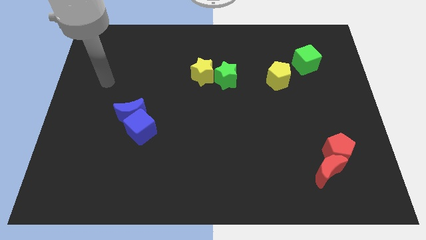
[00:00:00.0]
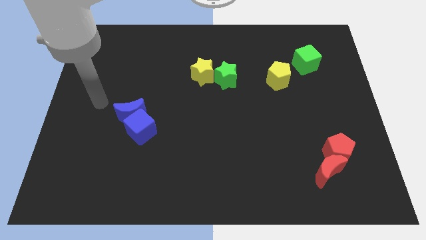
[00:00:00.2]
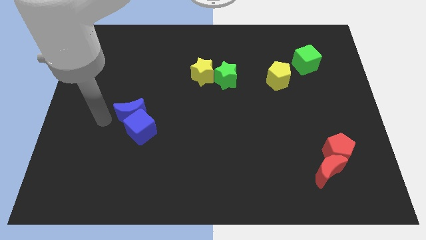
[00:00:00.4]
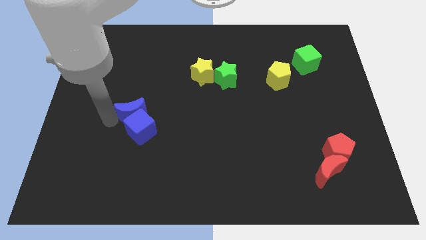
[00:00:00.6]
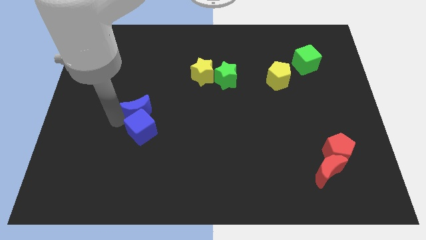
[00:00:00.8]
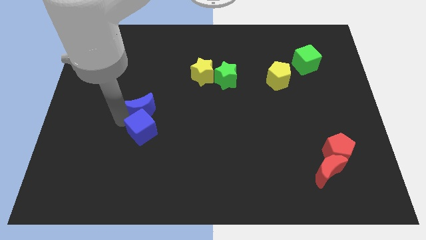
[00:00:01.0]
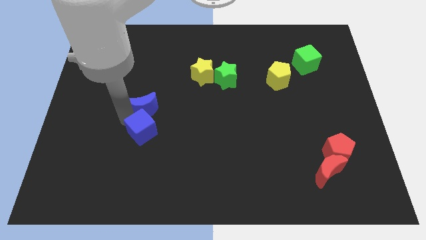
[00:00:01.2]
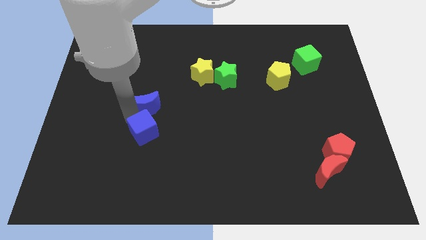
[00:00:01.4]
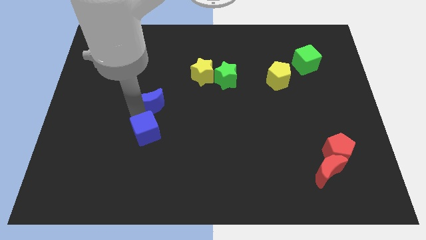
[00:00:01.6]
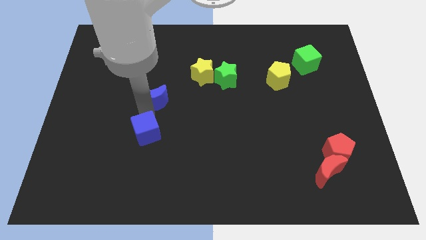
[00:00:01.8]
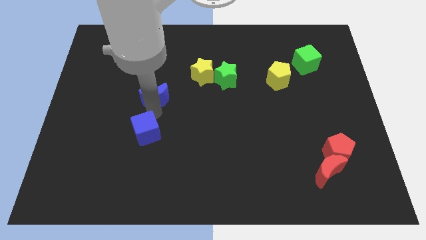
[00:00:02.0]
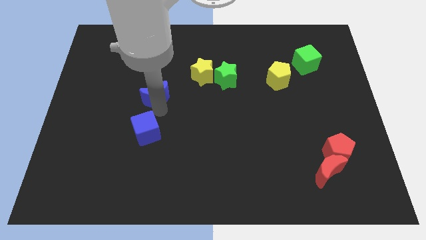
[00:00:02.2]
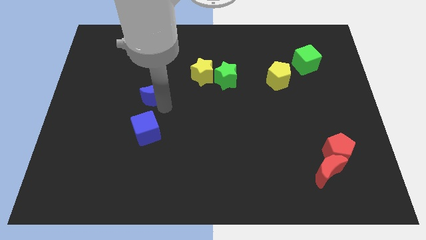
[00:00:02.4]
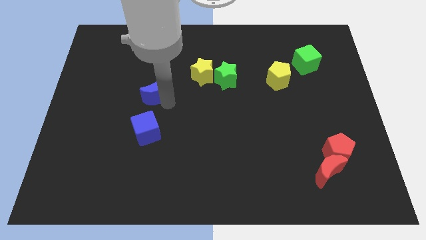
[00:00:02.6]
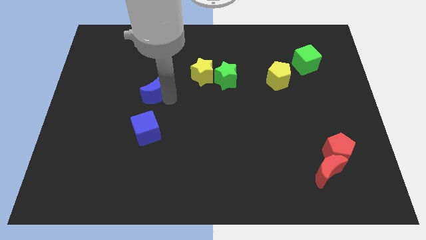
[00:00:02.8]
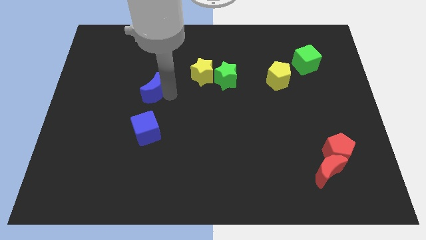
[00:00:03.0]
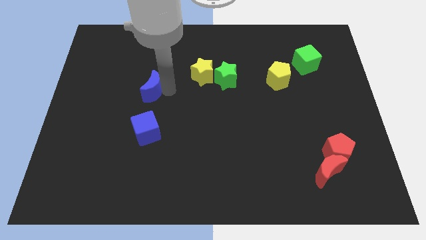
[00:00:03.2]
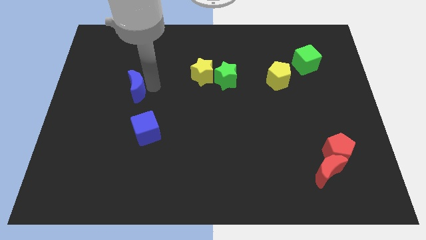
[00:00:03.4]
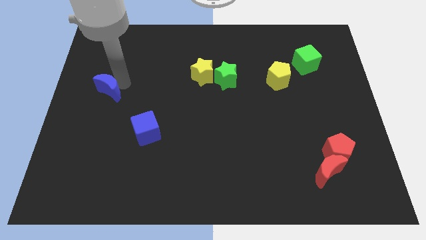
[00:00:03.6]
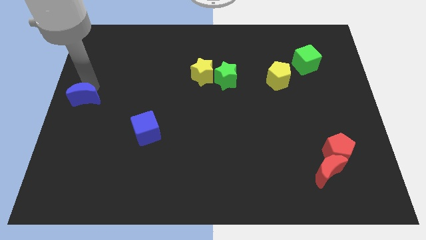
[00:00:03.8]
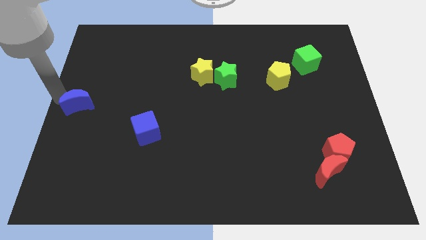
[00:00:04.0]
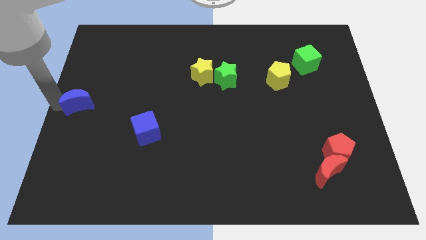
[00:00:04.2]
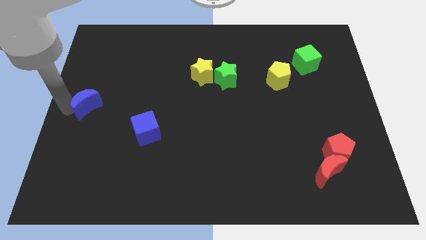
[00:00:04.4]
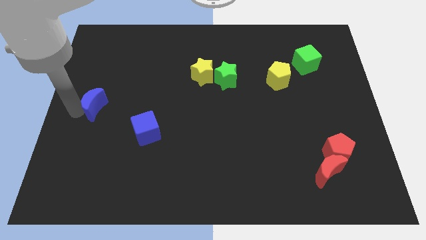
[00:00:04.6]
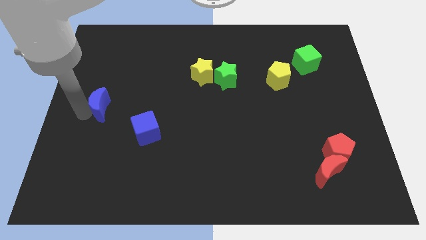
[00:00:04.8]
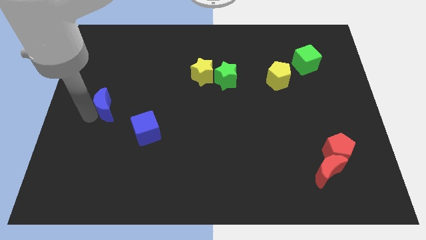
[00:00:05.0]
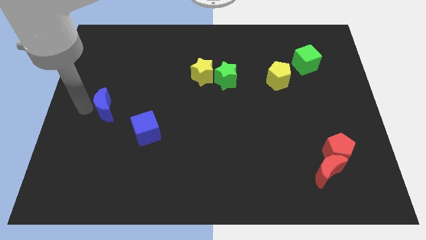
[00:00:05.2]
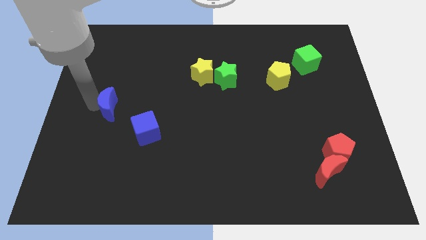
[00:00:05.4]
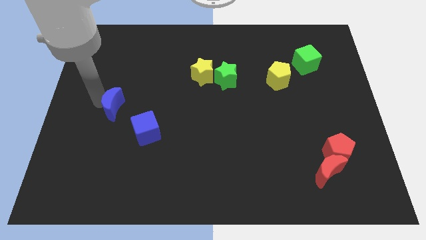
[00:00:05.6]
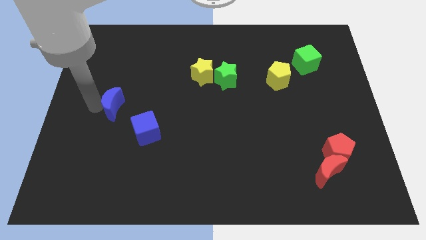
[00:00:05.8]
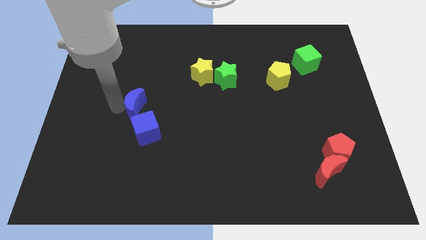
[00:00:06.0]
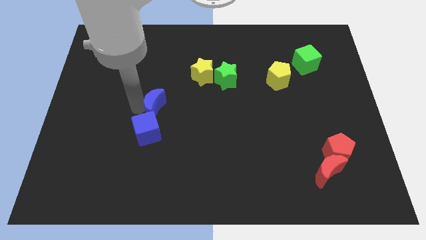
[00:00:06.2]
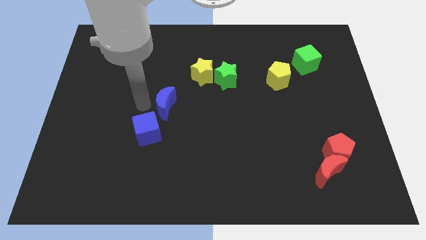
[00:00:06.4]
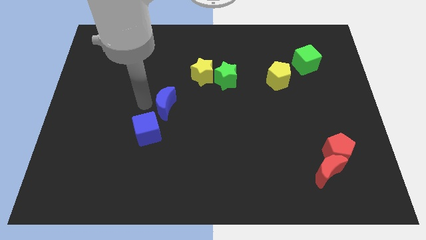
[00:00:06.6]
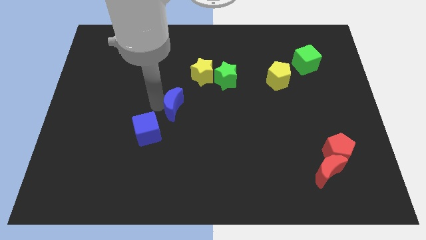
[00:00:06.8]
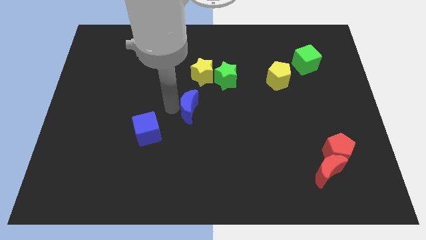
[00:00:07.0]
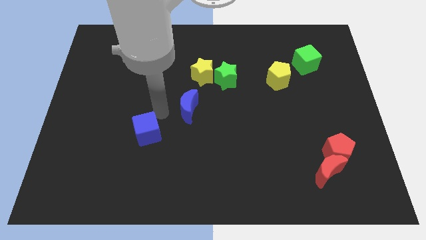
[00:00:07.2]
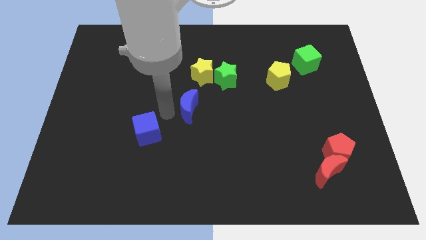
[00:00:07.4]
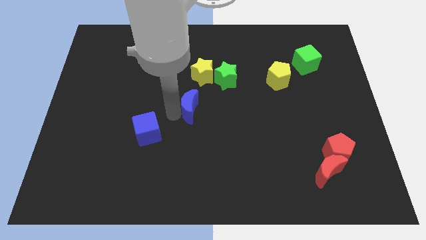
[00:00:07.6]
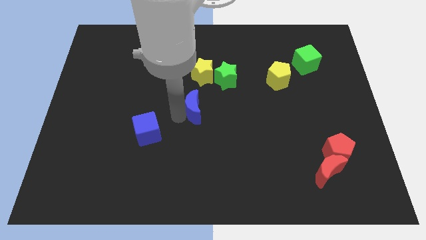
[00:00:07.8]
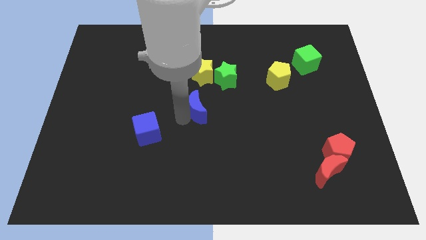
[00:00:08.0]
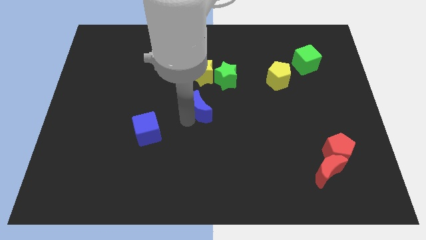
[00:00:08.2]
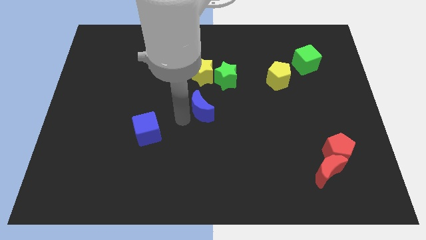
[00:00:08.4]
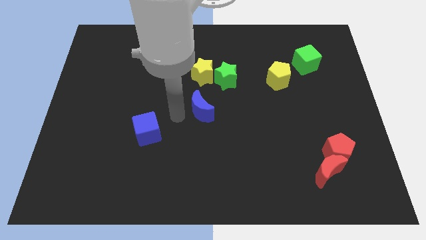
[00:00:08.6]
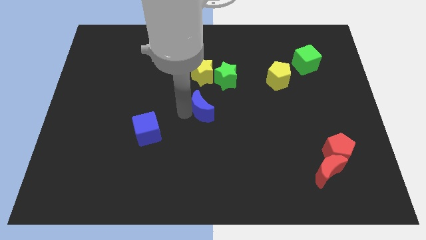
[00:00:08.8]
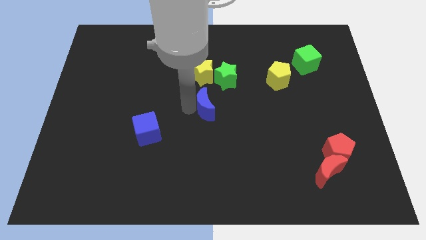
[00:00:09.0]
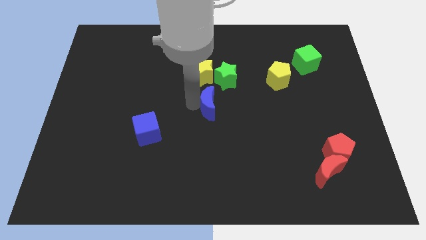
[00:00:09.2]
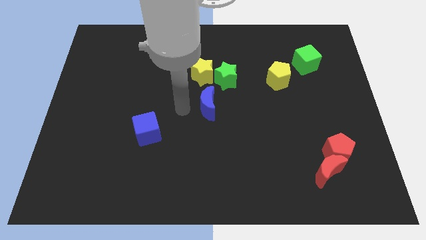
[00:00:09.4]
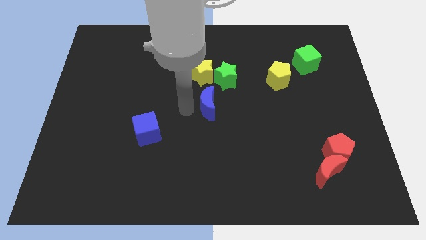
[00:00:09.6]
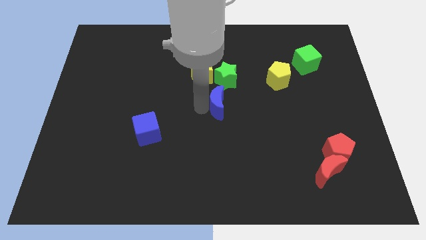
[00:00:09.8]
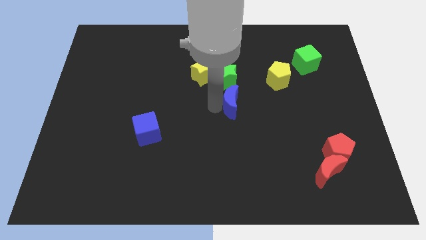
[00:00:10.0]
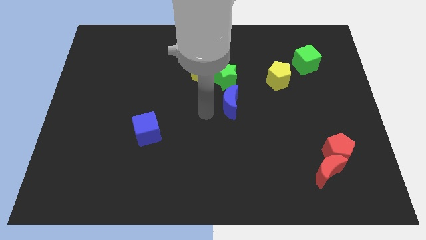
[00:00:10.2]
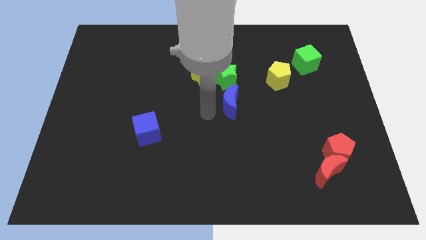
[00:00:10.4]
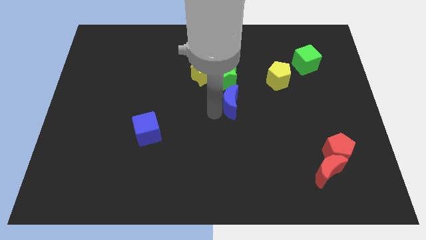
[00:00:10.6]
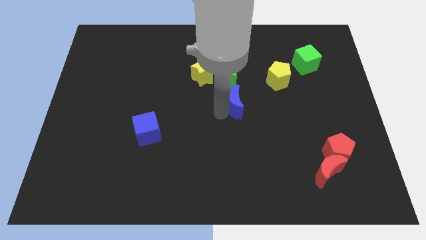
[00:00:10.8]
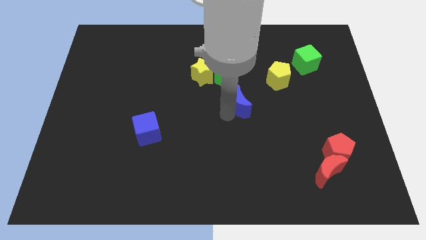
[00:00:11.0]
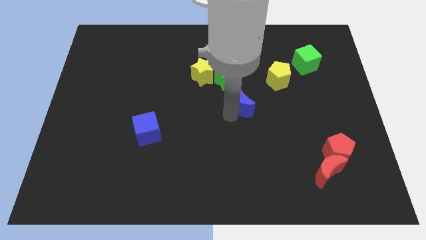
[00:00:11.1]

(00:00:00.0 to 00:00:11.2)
push the blue moon to the bottom left side of the yellow pentagon

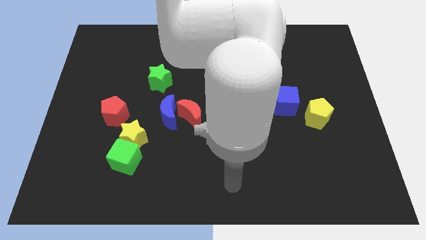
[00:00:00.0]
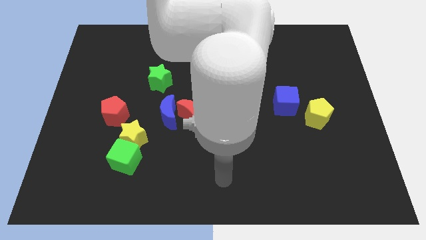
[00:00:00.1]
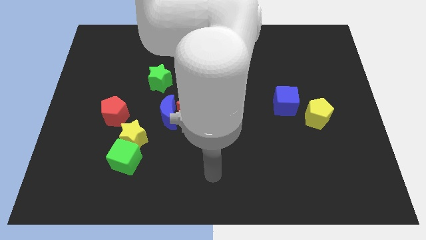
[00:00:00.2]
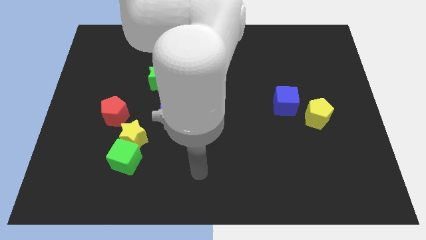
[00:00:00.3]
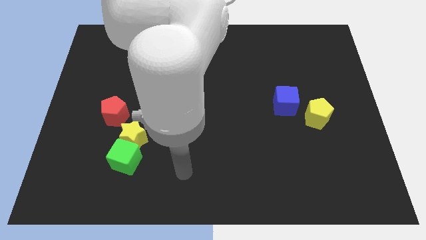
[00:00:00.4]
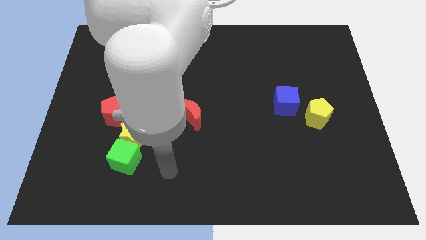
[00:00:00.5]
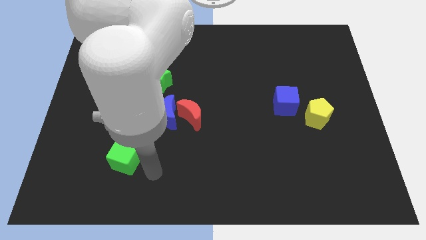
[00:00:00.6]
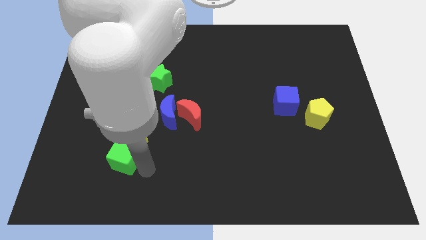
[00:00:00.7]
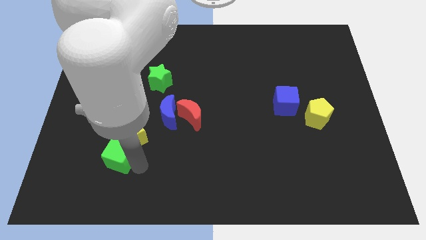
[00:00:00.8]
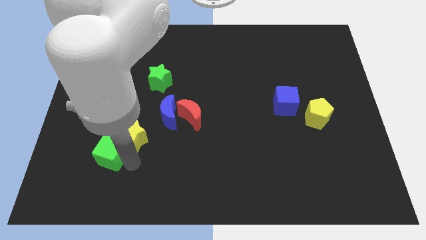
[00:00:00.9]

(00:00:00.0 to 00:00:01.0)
slide the green cube just left of the yellow star
